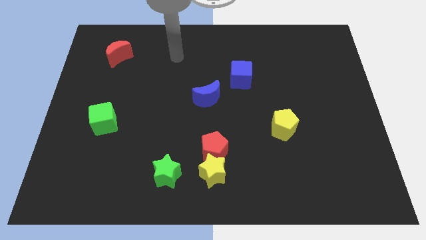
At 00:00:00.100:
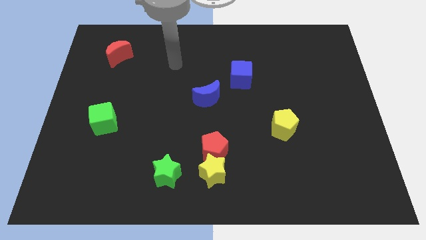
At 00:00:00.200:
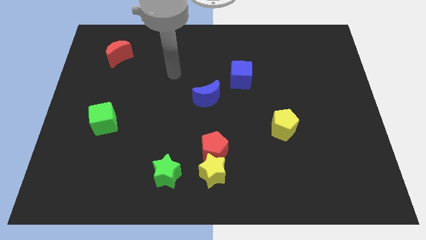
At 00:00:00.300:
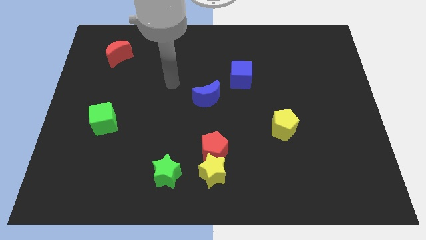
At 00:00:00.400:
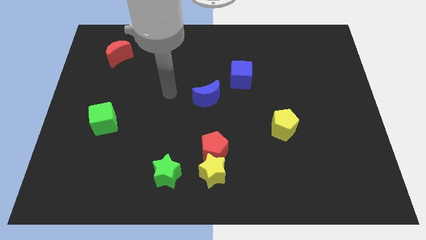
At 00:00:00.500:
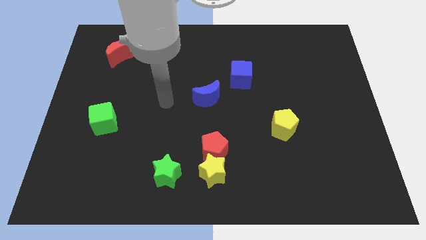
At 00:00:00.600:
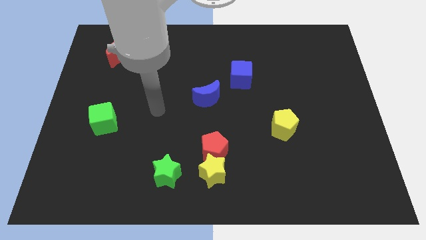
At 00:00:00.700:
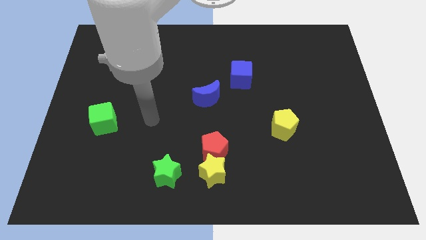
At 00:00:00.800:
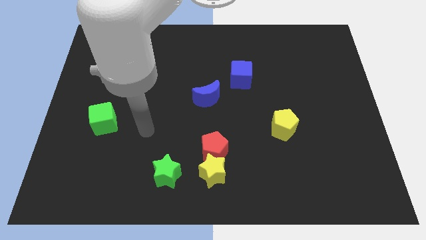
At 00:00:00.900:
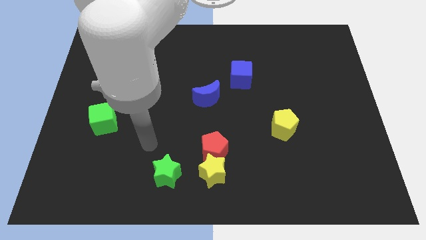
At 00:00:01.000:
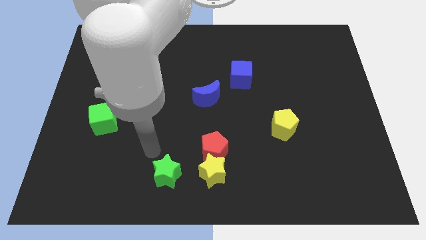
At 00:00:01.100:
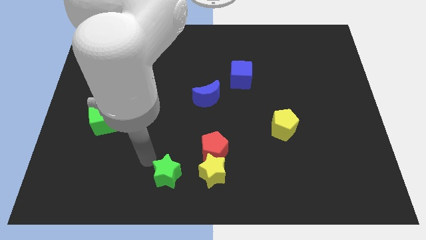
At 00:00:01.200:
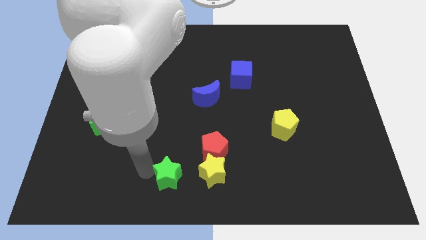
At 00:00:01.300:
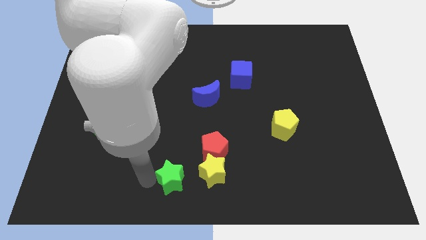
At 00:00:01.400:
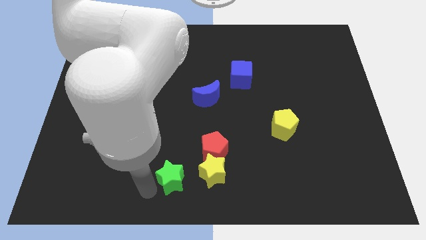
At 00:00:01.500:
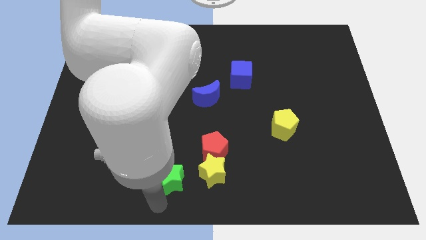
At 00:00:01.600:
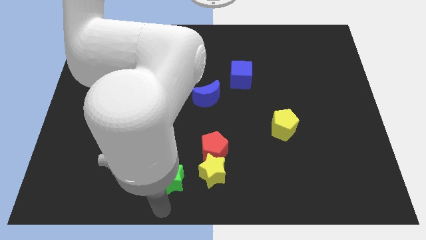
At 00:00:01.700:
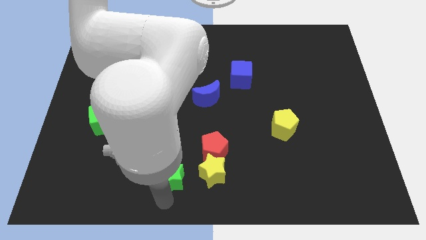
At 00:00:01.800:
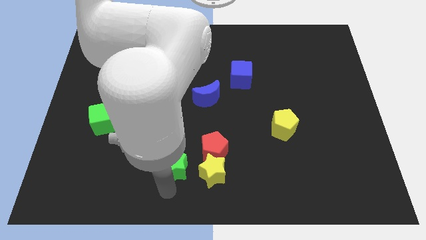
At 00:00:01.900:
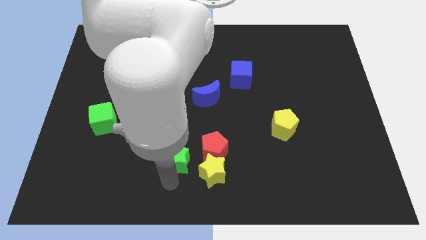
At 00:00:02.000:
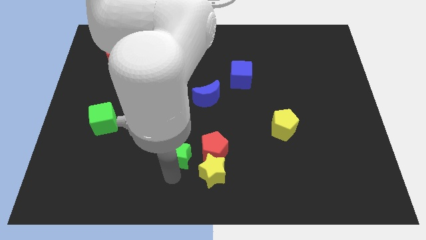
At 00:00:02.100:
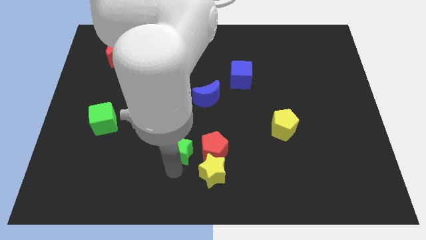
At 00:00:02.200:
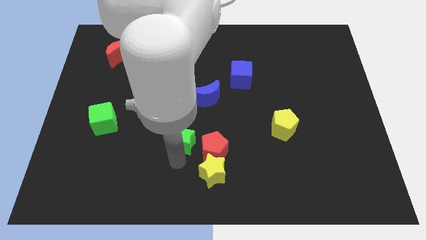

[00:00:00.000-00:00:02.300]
slightly slide the green star up

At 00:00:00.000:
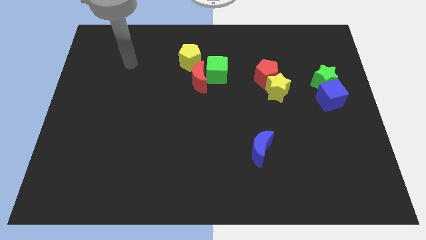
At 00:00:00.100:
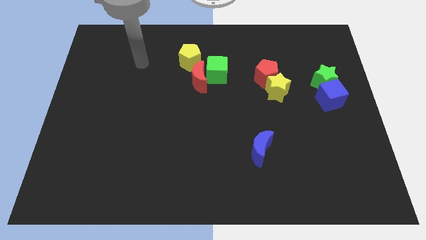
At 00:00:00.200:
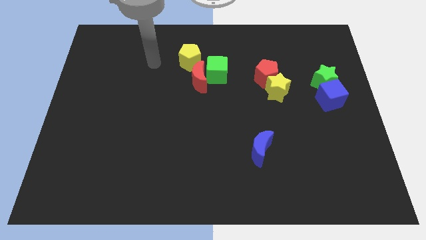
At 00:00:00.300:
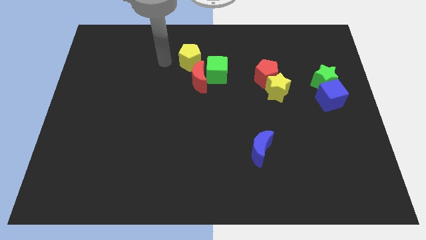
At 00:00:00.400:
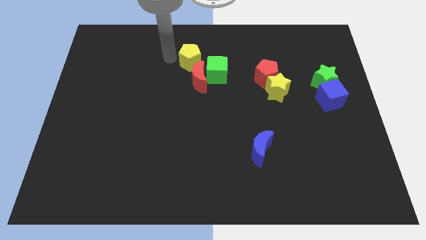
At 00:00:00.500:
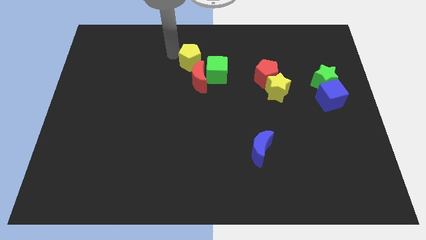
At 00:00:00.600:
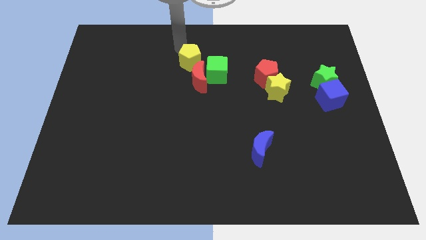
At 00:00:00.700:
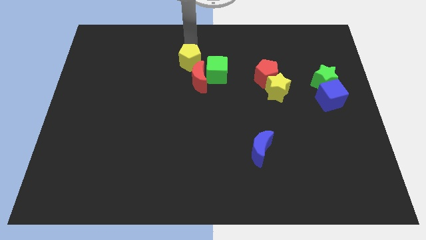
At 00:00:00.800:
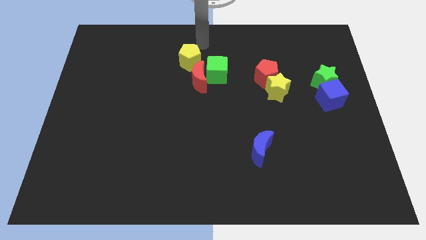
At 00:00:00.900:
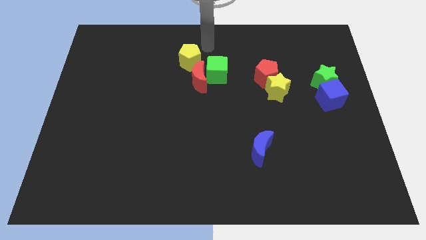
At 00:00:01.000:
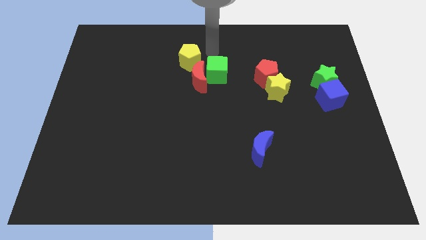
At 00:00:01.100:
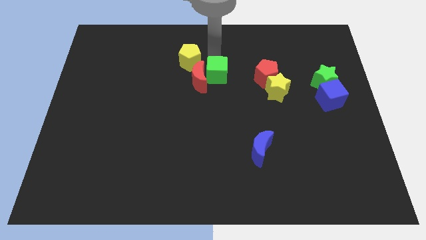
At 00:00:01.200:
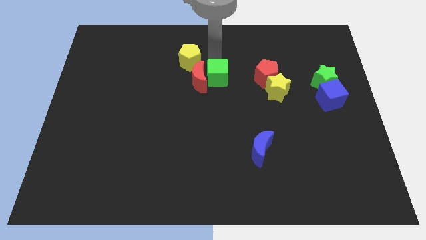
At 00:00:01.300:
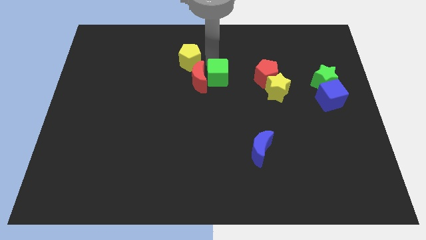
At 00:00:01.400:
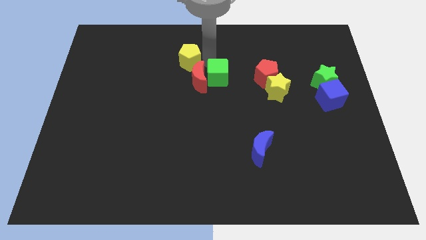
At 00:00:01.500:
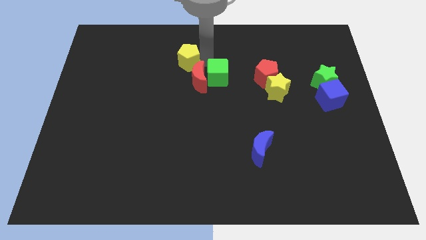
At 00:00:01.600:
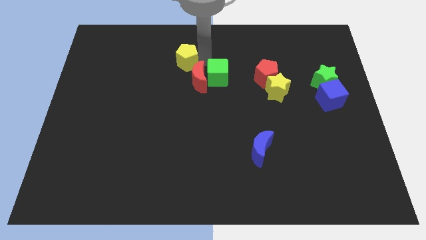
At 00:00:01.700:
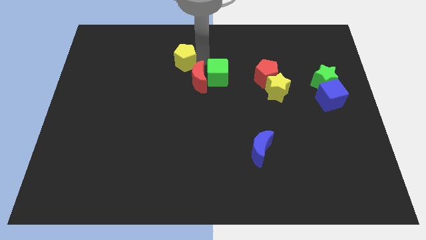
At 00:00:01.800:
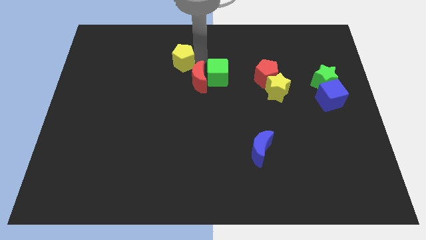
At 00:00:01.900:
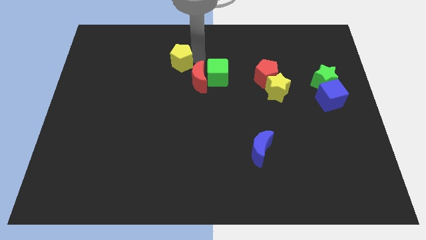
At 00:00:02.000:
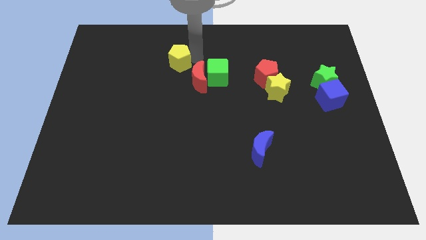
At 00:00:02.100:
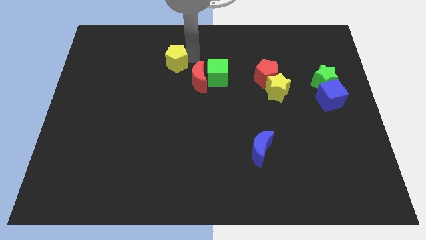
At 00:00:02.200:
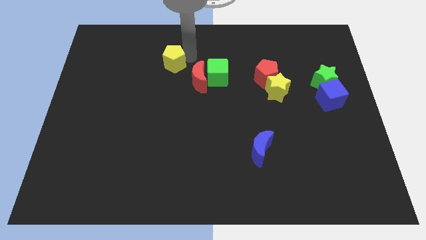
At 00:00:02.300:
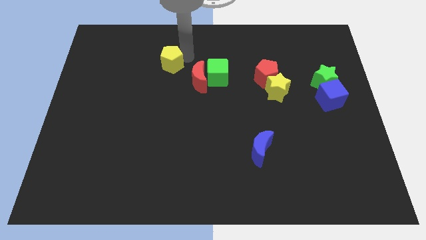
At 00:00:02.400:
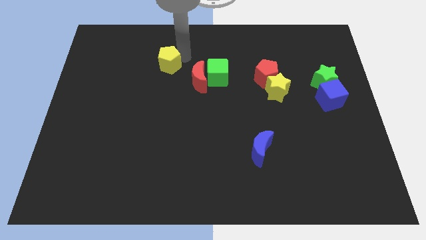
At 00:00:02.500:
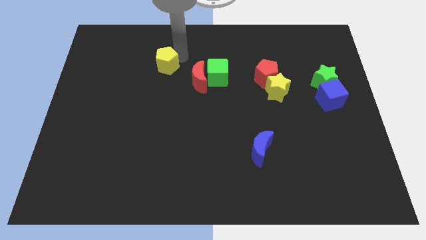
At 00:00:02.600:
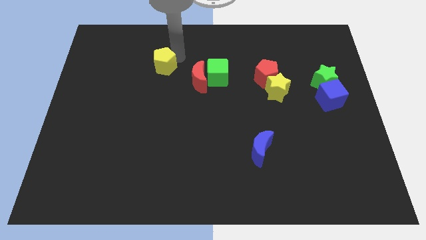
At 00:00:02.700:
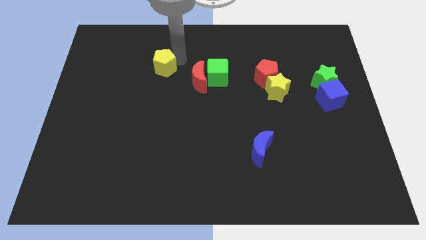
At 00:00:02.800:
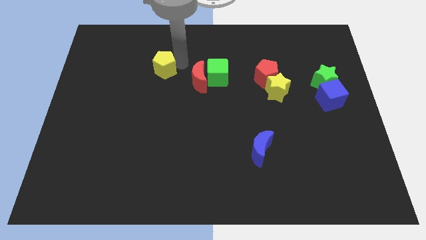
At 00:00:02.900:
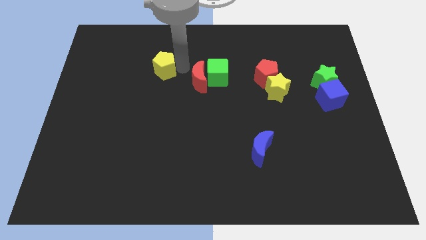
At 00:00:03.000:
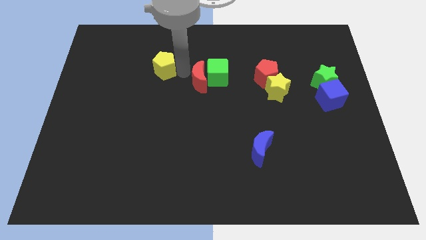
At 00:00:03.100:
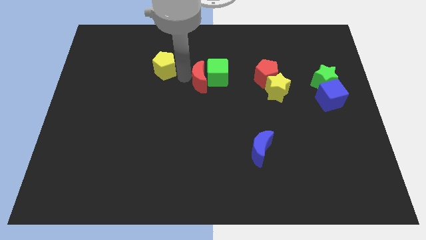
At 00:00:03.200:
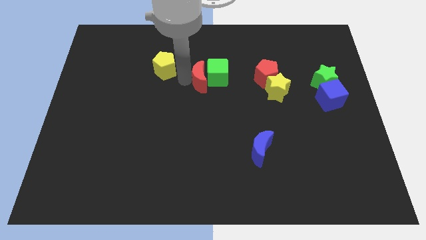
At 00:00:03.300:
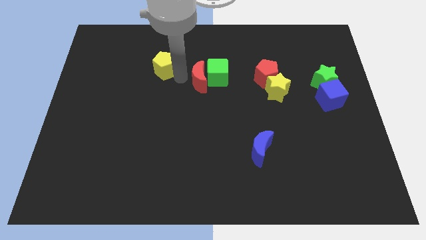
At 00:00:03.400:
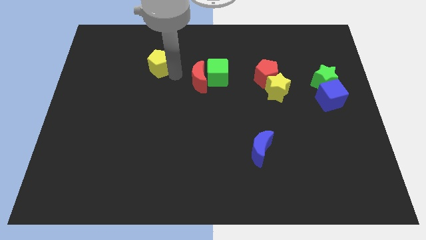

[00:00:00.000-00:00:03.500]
slightly push the yellow pentagon to the left

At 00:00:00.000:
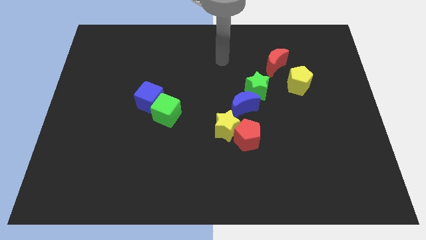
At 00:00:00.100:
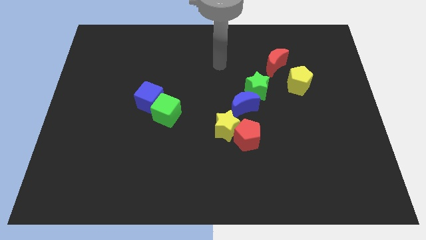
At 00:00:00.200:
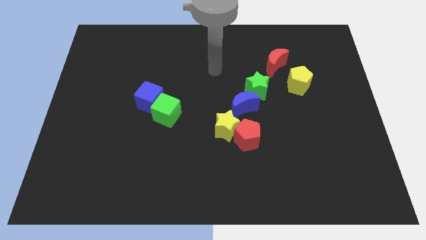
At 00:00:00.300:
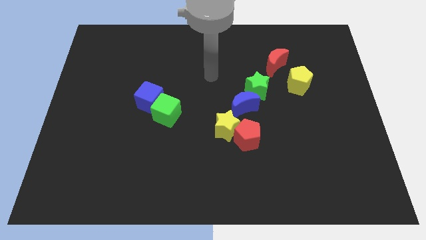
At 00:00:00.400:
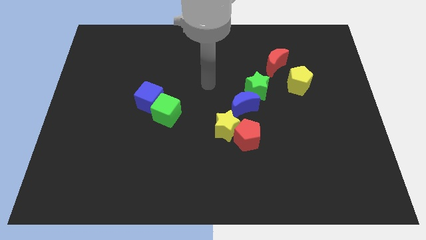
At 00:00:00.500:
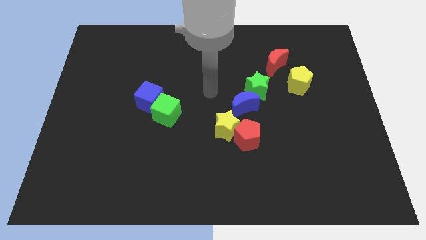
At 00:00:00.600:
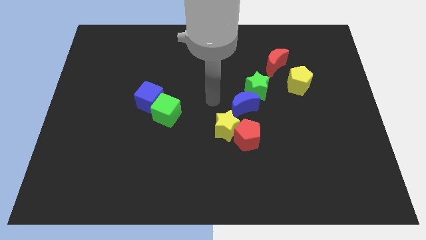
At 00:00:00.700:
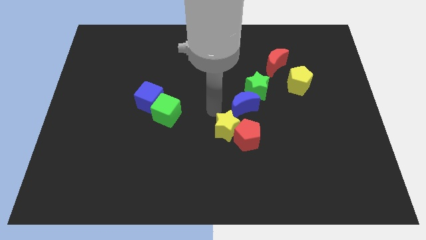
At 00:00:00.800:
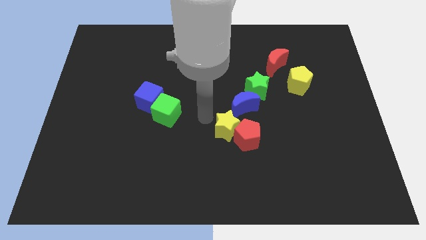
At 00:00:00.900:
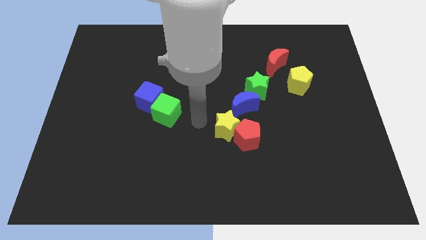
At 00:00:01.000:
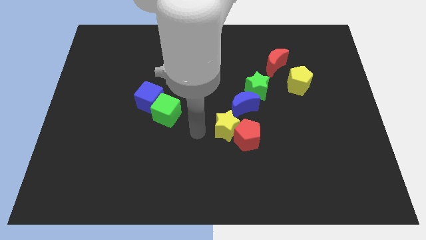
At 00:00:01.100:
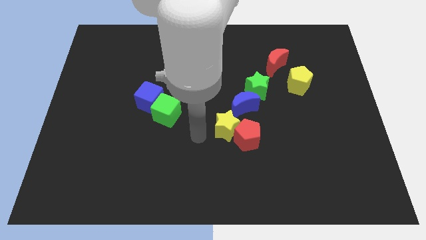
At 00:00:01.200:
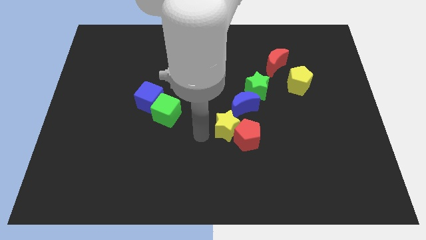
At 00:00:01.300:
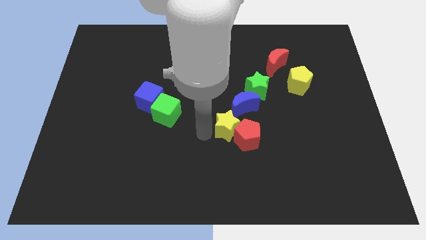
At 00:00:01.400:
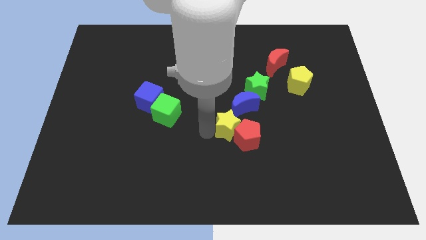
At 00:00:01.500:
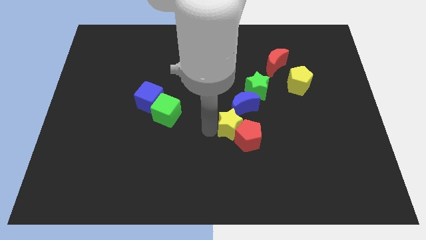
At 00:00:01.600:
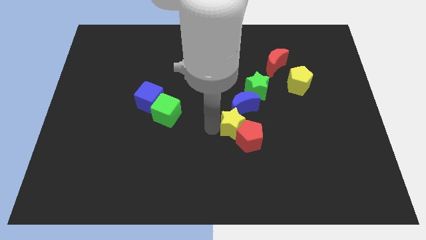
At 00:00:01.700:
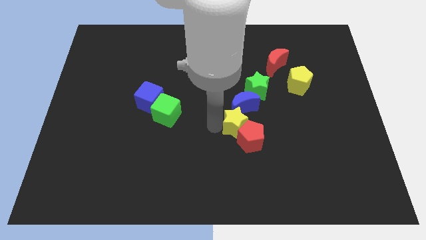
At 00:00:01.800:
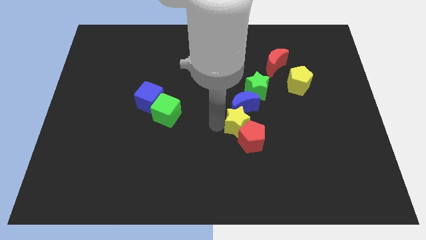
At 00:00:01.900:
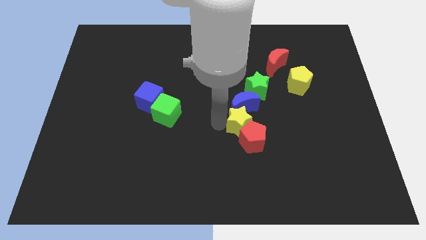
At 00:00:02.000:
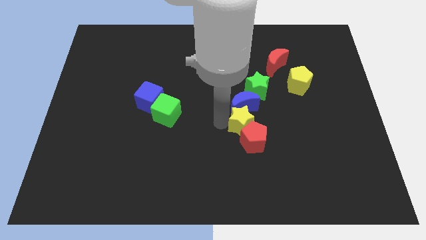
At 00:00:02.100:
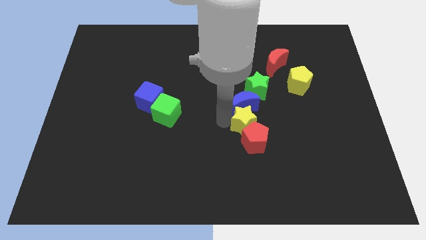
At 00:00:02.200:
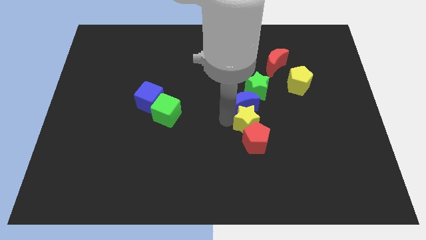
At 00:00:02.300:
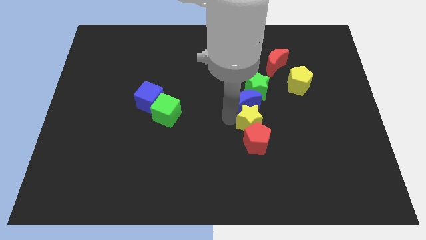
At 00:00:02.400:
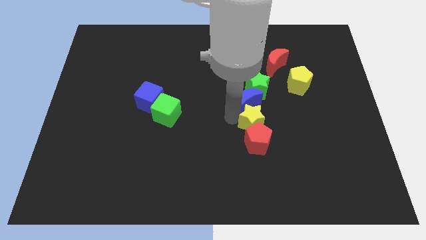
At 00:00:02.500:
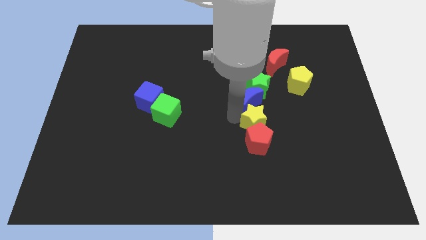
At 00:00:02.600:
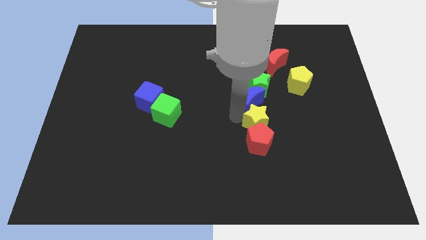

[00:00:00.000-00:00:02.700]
slide the yellow star to the right a little
